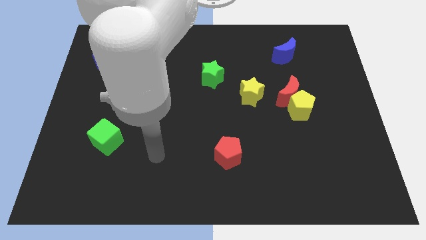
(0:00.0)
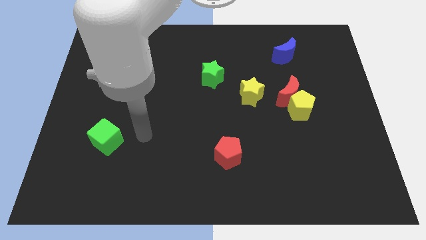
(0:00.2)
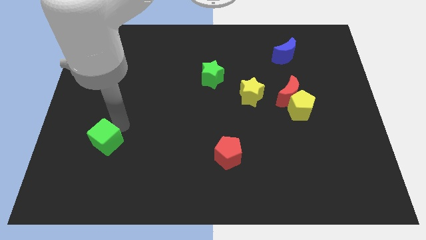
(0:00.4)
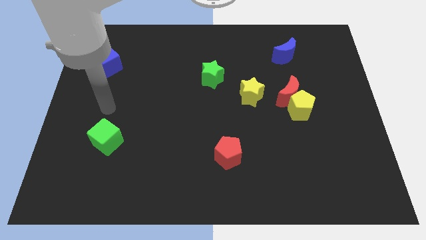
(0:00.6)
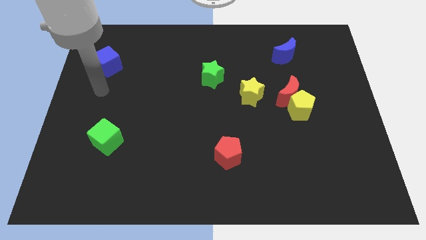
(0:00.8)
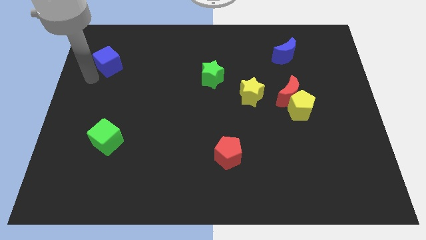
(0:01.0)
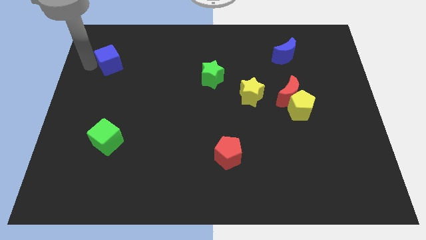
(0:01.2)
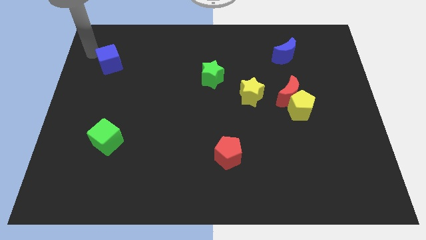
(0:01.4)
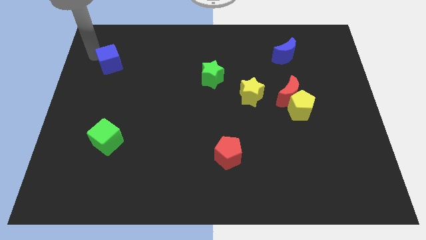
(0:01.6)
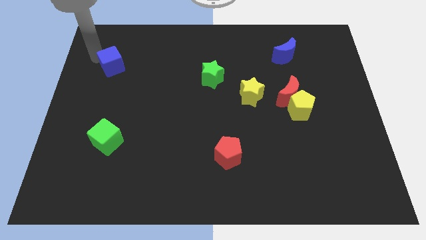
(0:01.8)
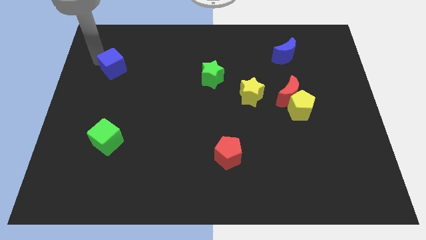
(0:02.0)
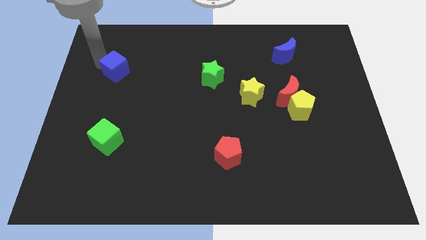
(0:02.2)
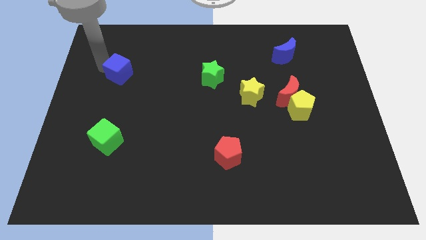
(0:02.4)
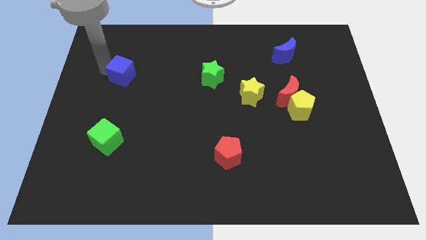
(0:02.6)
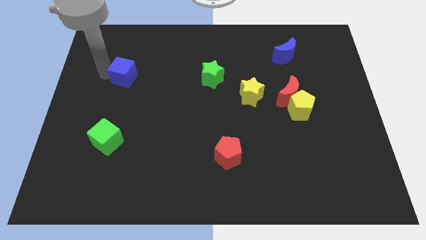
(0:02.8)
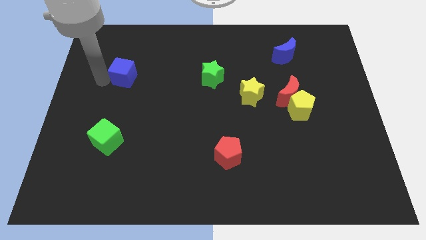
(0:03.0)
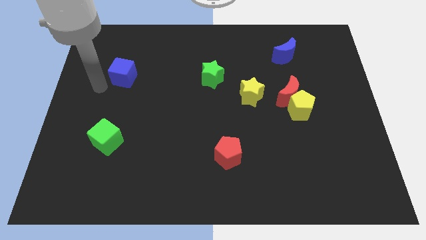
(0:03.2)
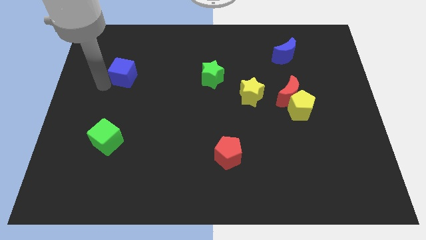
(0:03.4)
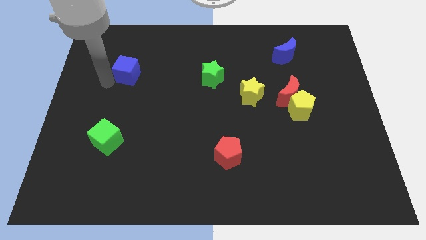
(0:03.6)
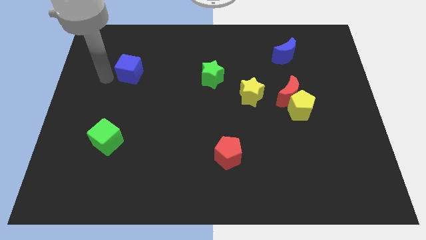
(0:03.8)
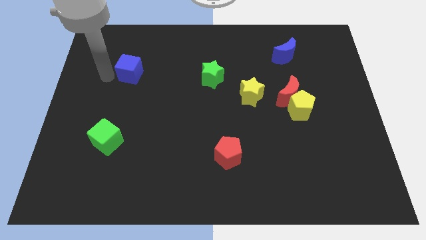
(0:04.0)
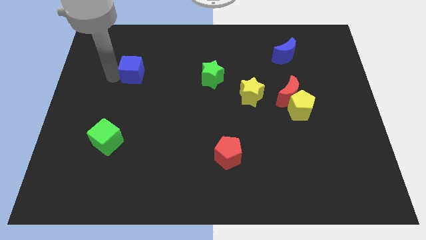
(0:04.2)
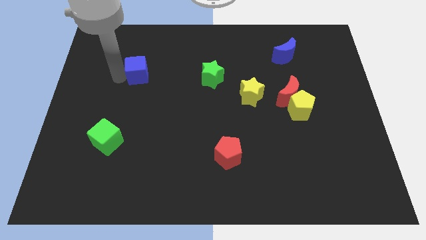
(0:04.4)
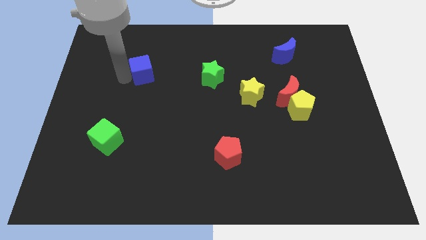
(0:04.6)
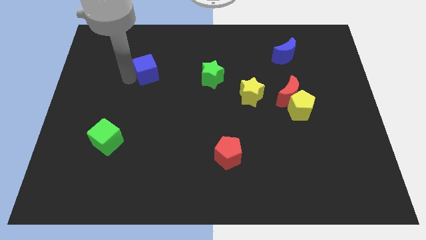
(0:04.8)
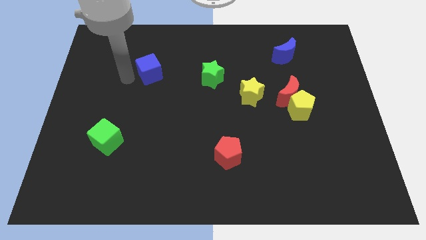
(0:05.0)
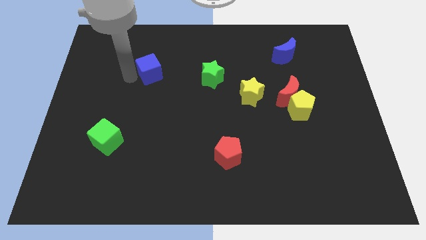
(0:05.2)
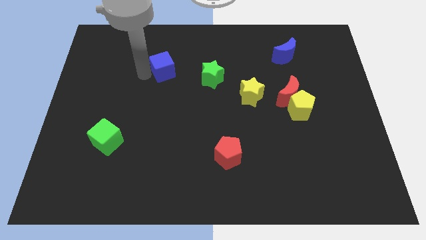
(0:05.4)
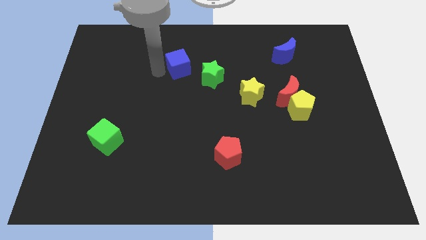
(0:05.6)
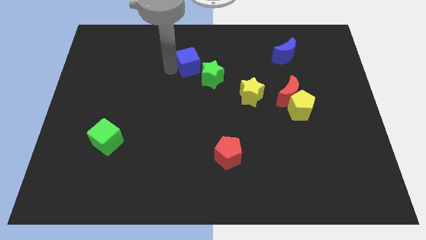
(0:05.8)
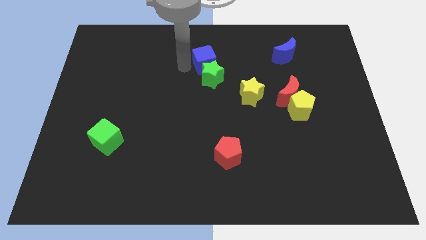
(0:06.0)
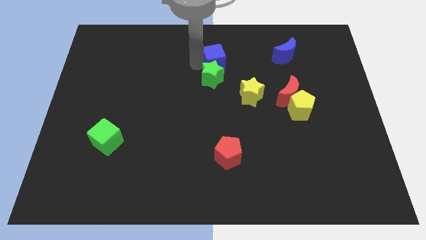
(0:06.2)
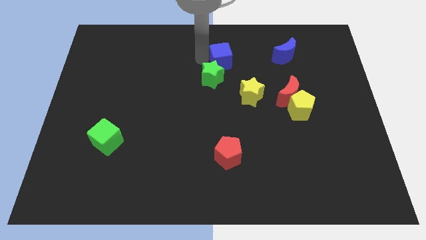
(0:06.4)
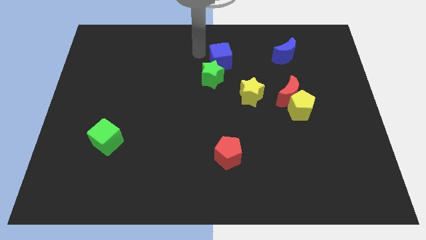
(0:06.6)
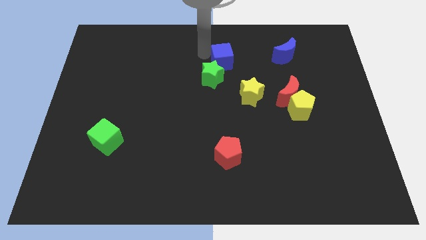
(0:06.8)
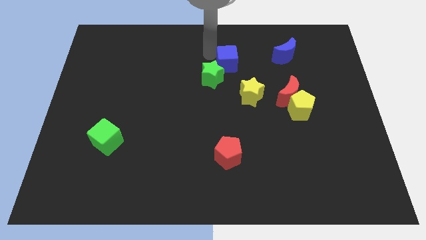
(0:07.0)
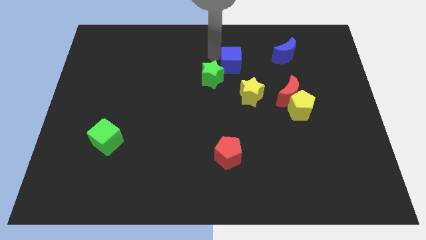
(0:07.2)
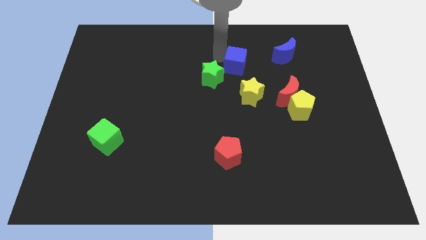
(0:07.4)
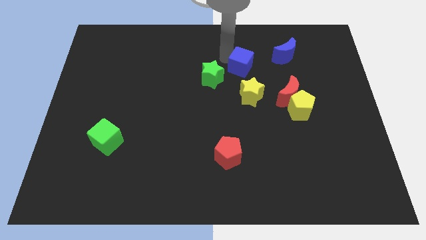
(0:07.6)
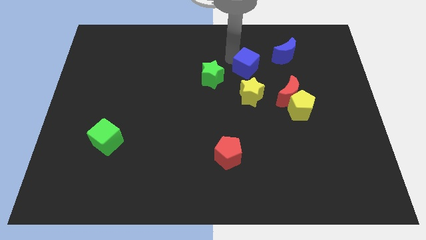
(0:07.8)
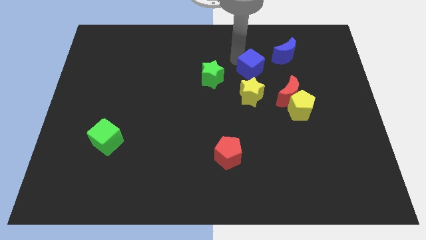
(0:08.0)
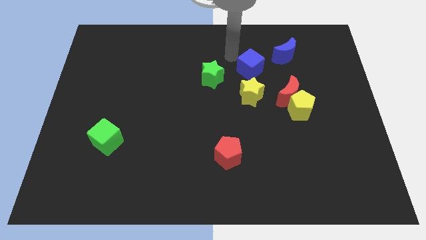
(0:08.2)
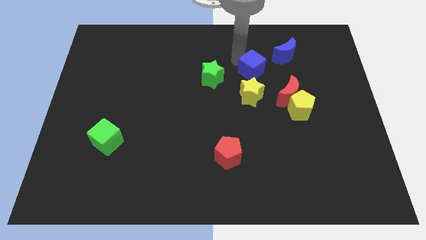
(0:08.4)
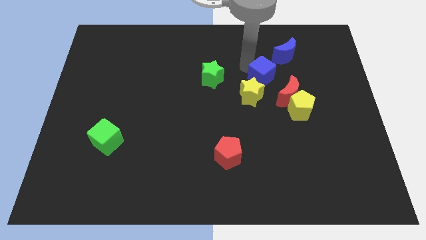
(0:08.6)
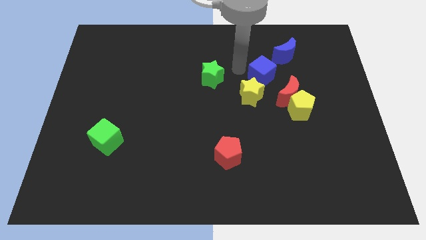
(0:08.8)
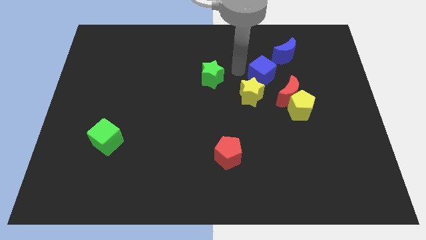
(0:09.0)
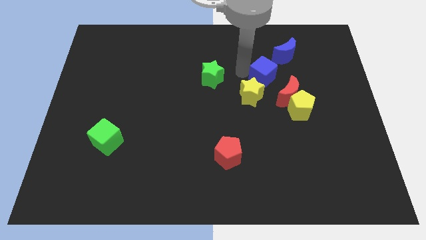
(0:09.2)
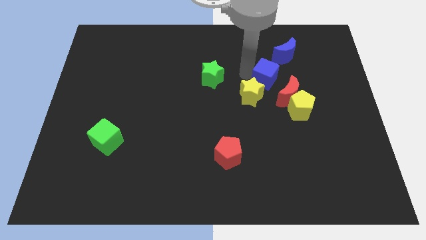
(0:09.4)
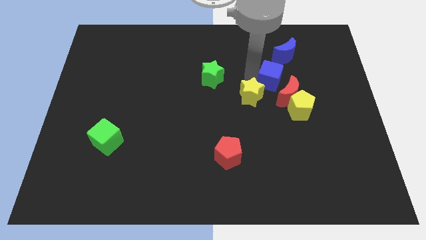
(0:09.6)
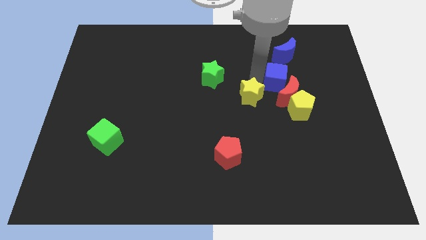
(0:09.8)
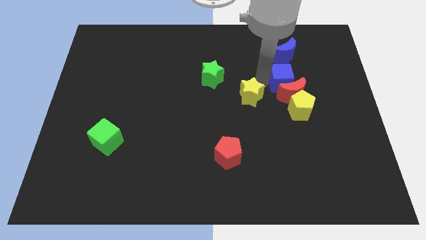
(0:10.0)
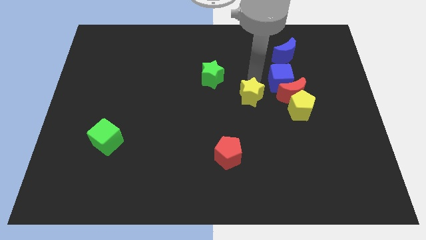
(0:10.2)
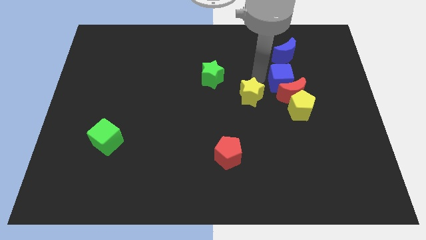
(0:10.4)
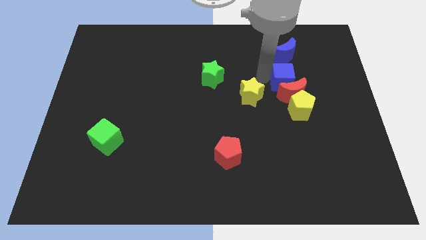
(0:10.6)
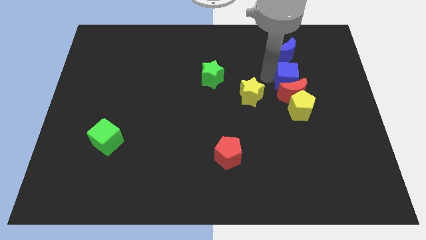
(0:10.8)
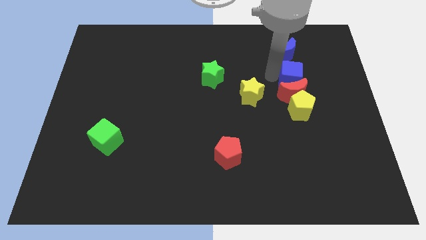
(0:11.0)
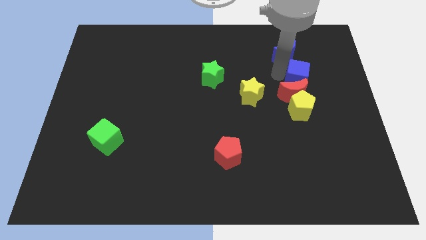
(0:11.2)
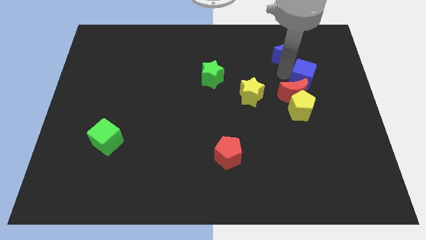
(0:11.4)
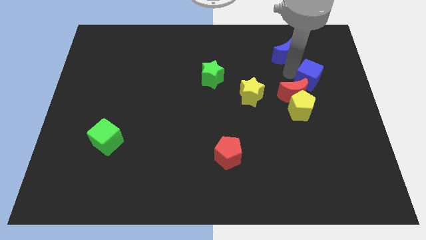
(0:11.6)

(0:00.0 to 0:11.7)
move the blue cube to the top right side of the yellow pentagon

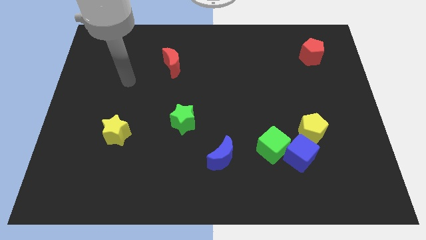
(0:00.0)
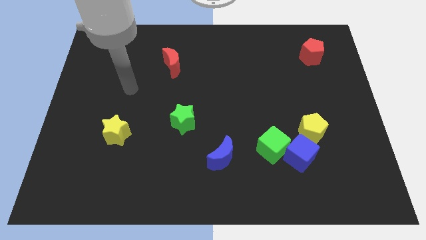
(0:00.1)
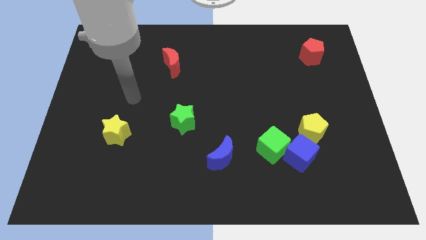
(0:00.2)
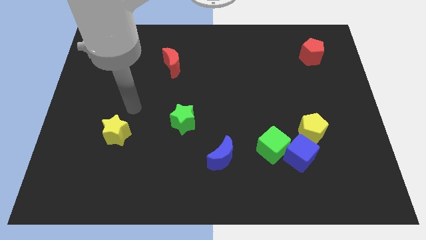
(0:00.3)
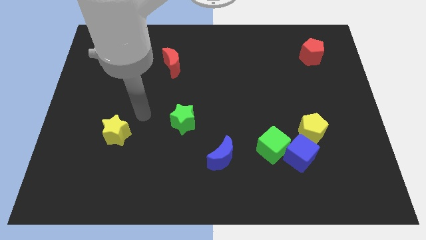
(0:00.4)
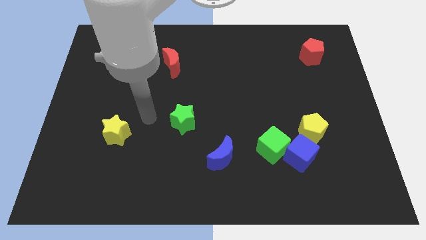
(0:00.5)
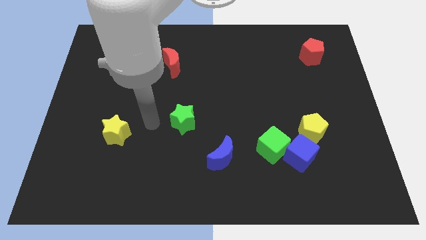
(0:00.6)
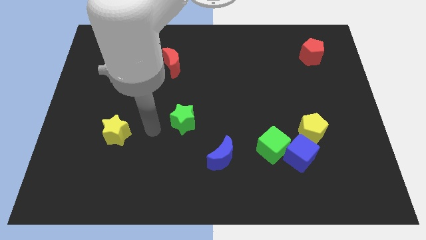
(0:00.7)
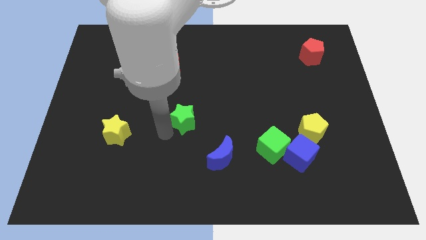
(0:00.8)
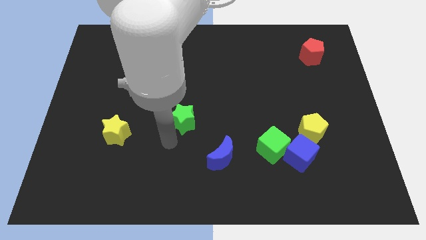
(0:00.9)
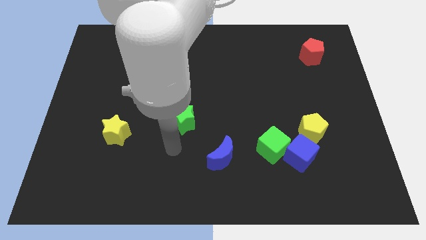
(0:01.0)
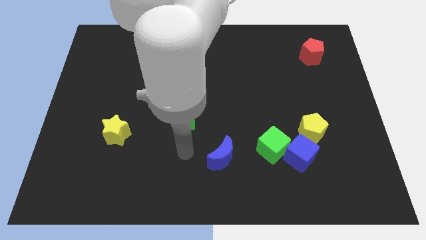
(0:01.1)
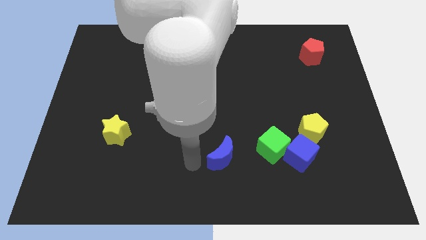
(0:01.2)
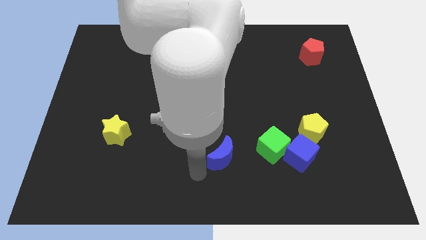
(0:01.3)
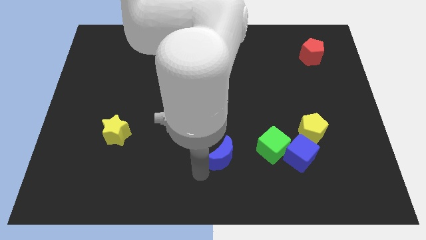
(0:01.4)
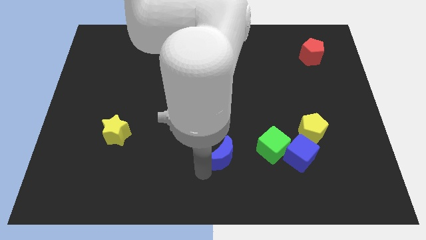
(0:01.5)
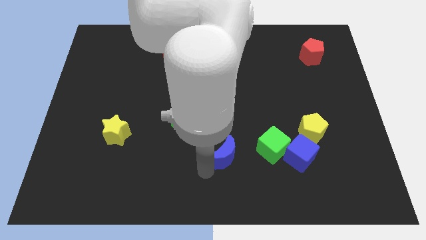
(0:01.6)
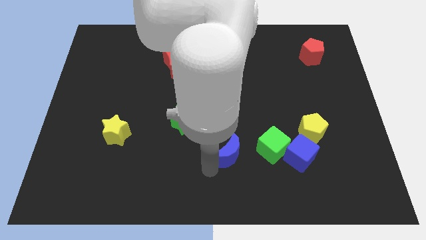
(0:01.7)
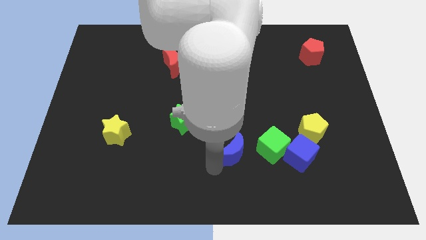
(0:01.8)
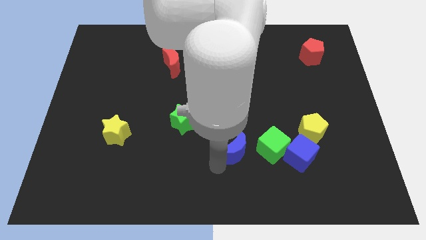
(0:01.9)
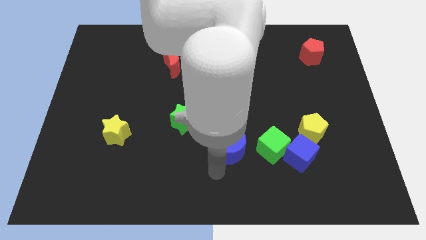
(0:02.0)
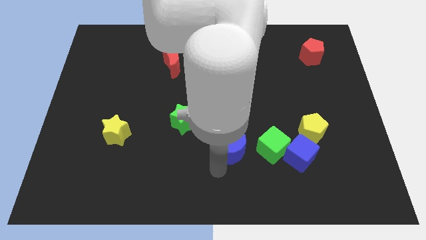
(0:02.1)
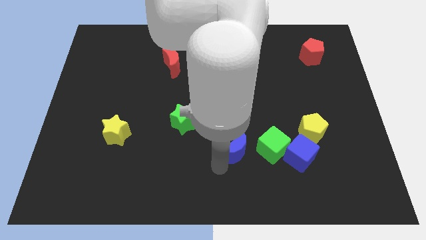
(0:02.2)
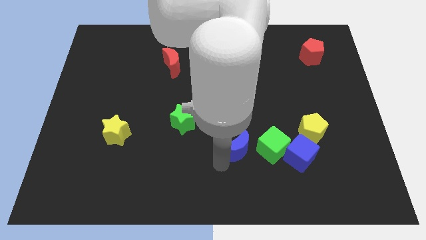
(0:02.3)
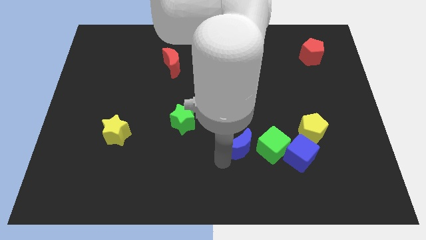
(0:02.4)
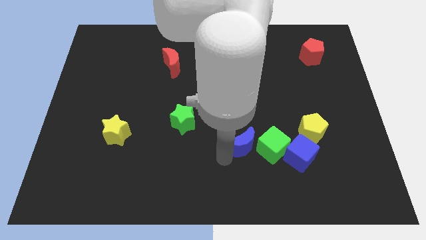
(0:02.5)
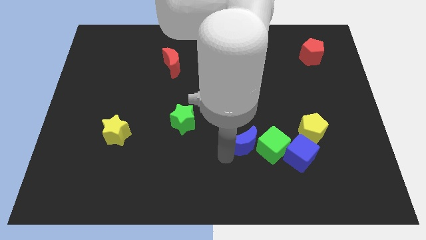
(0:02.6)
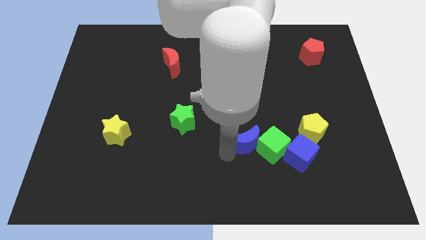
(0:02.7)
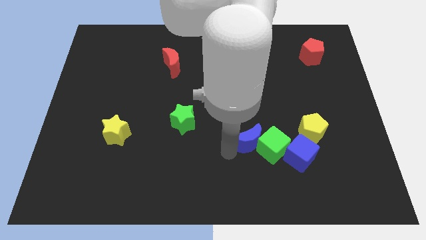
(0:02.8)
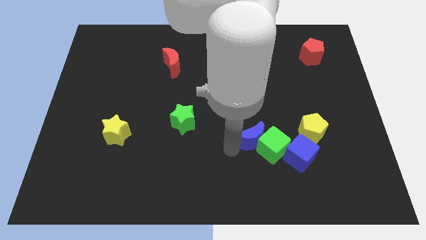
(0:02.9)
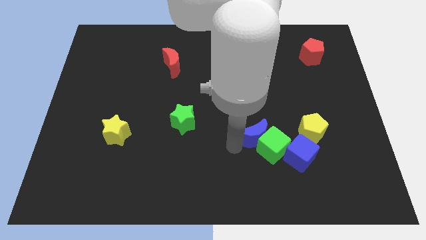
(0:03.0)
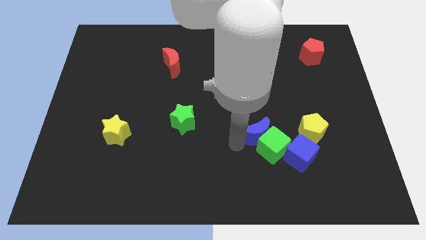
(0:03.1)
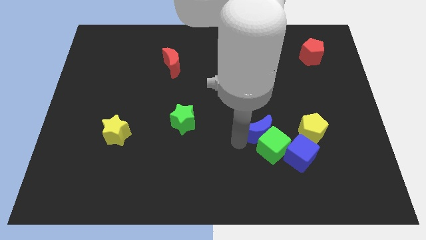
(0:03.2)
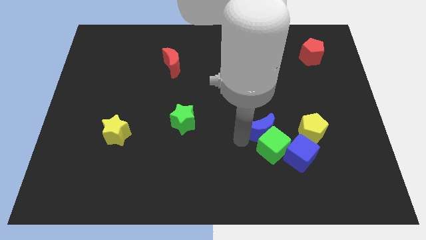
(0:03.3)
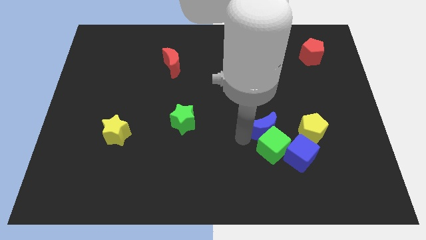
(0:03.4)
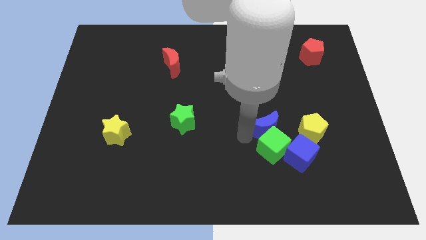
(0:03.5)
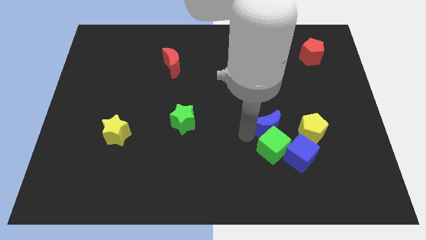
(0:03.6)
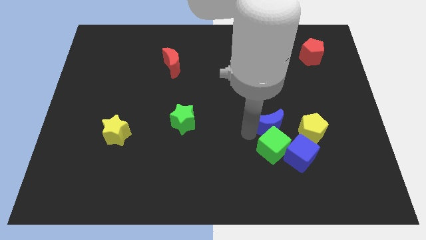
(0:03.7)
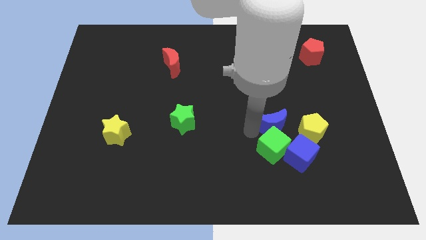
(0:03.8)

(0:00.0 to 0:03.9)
slide the blue moon to the top left of the yellow pentagon
